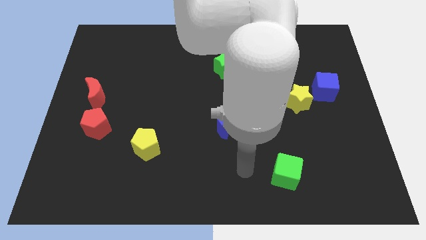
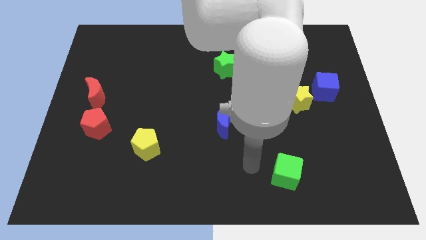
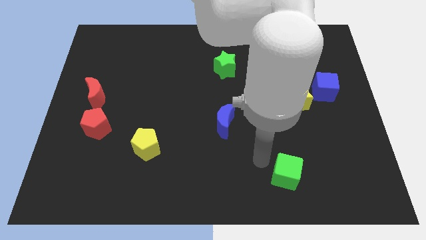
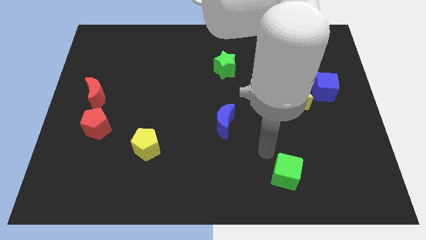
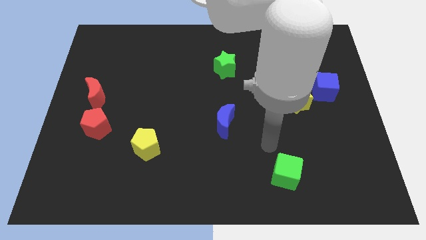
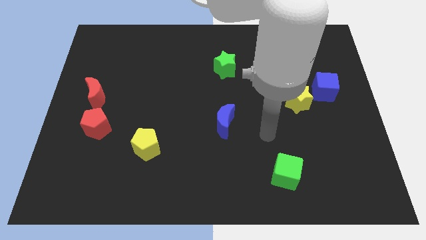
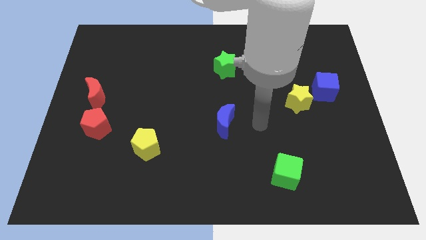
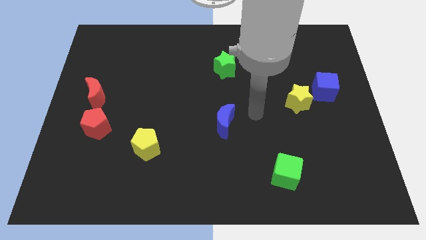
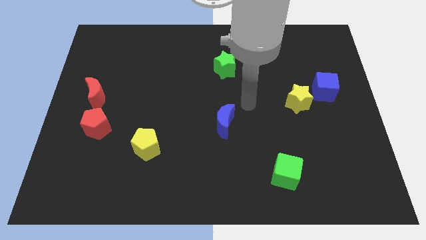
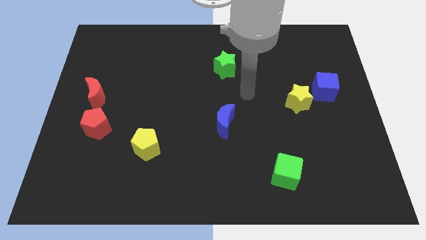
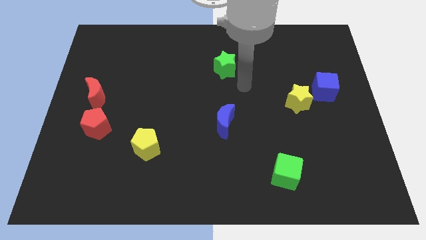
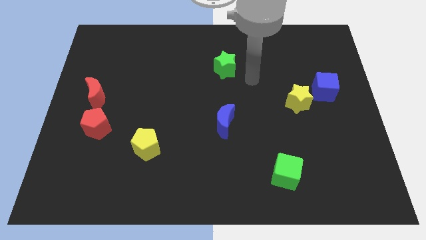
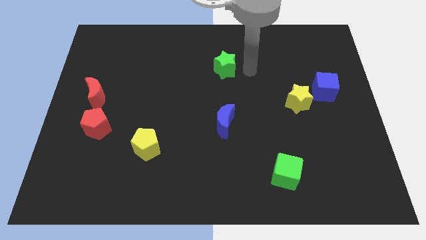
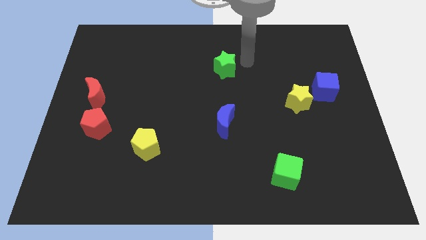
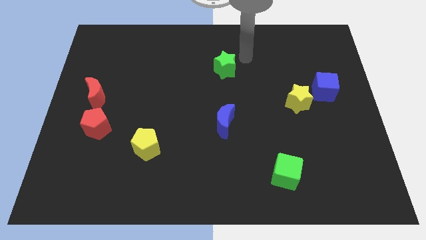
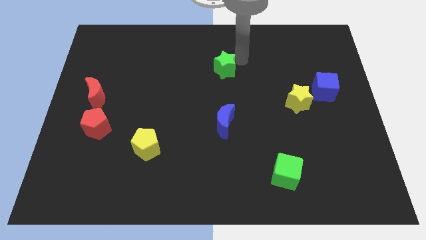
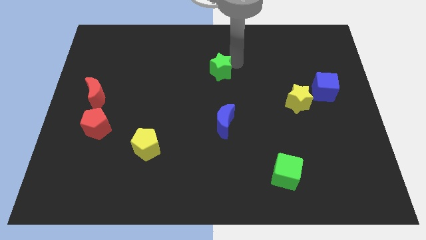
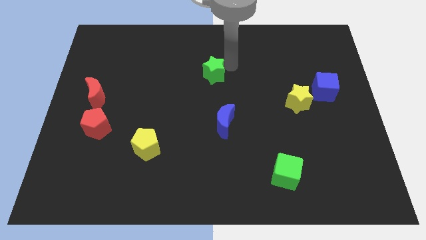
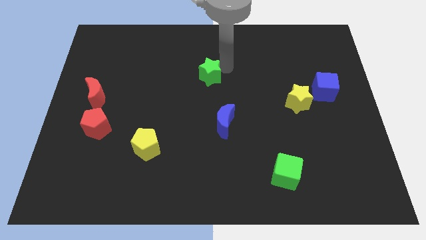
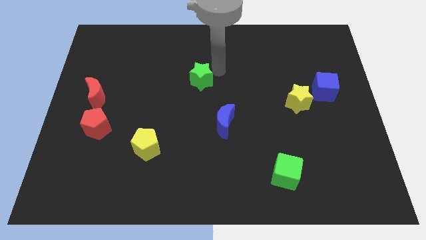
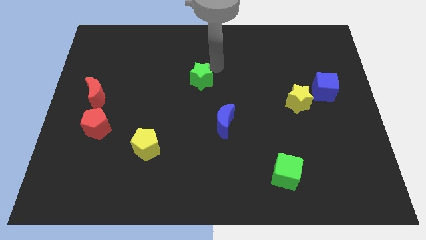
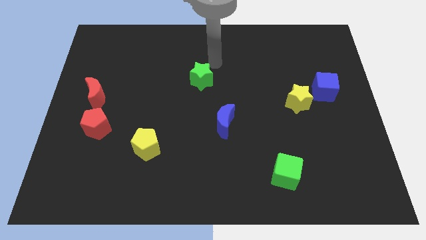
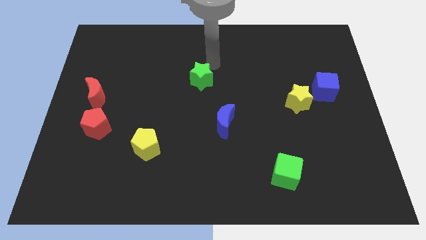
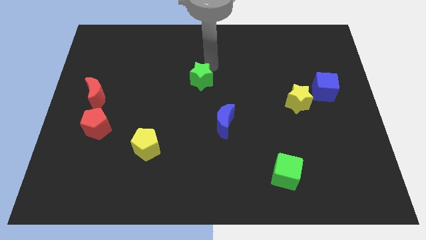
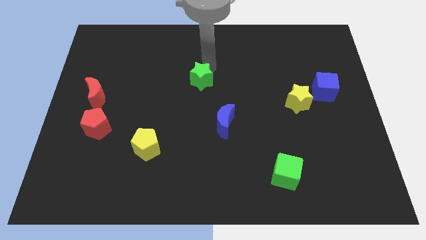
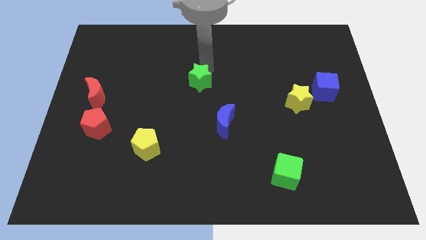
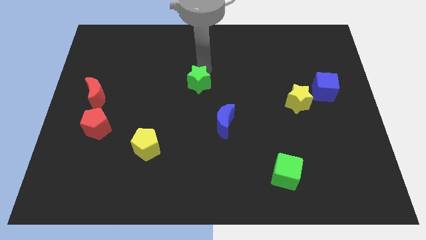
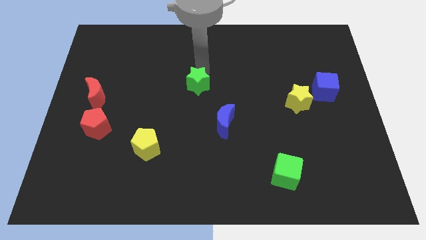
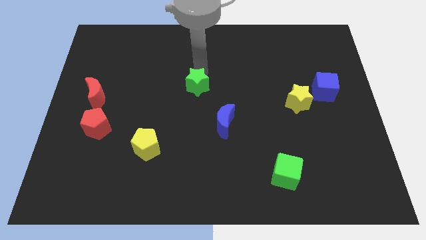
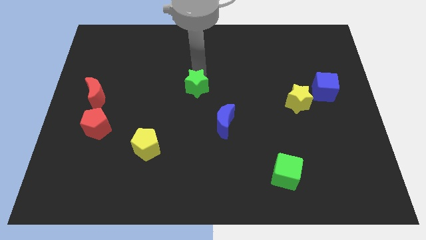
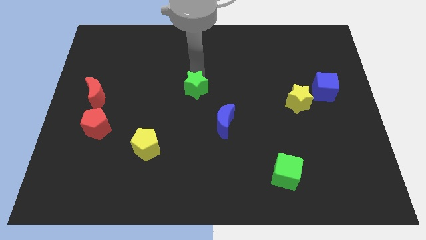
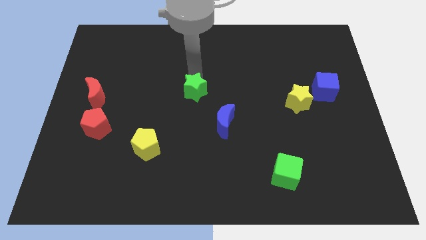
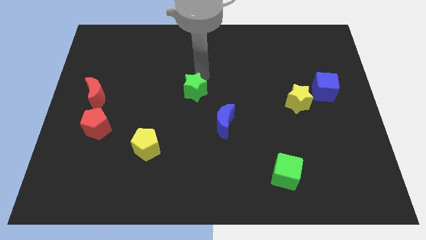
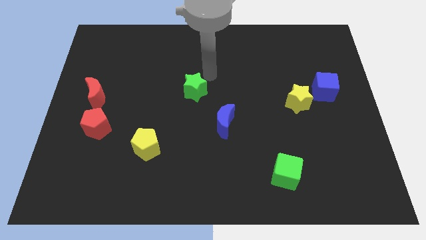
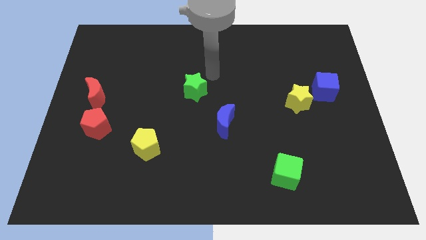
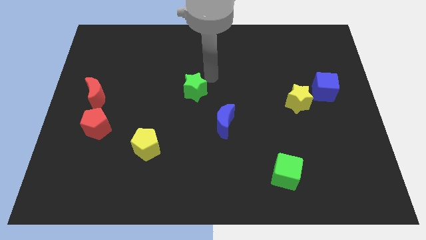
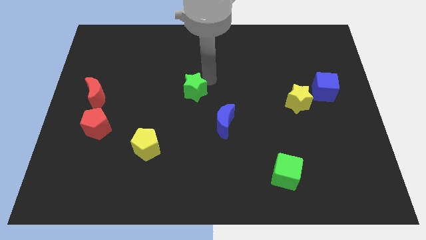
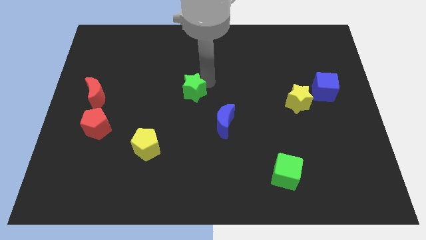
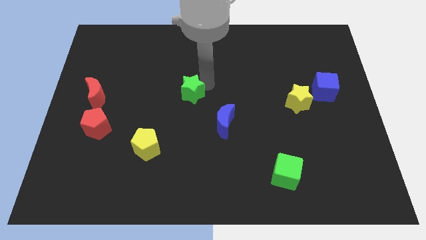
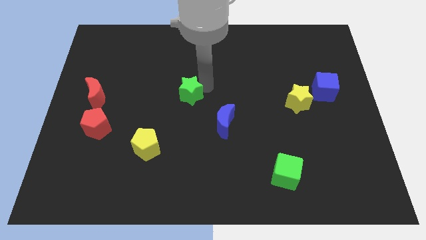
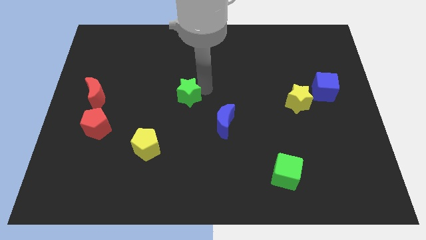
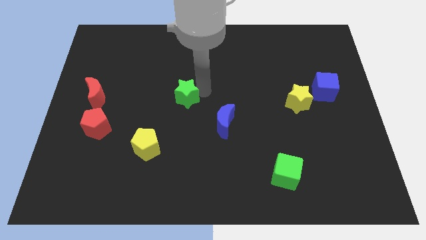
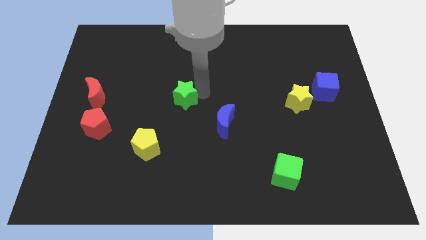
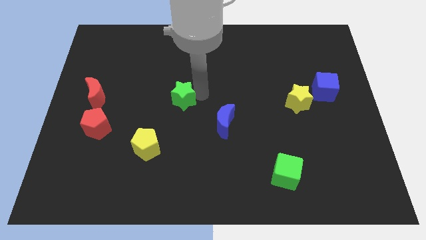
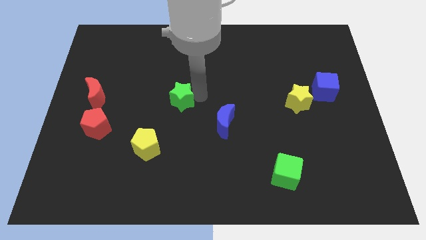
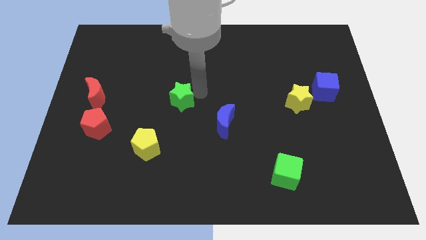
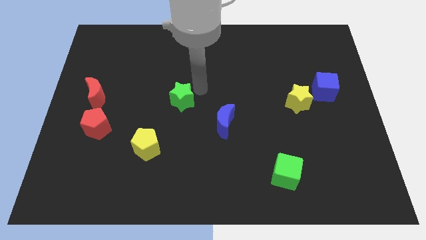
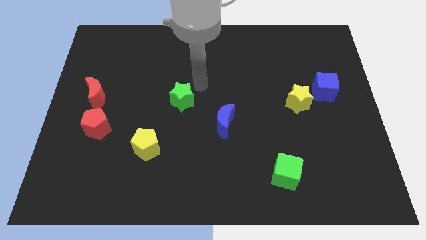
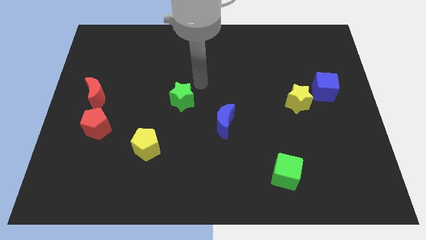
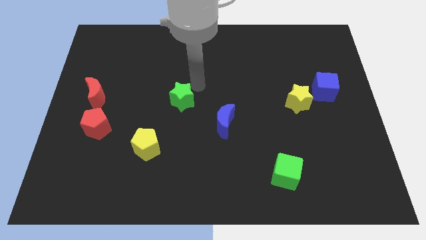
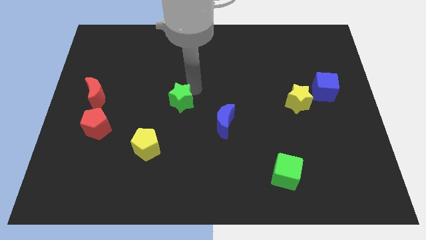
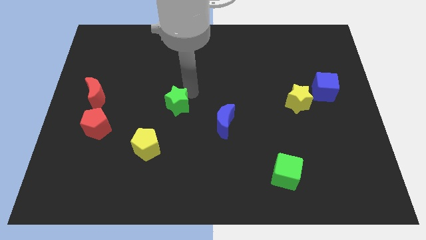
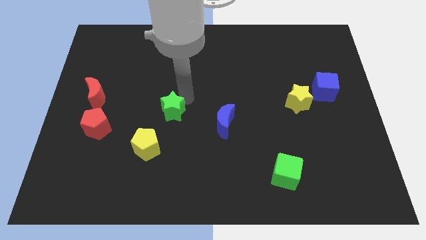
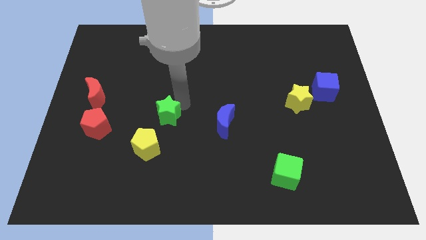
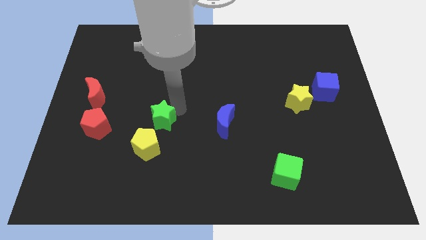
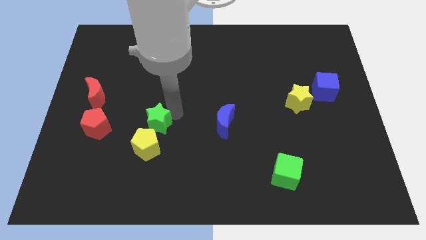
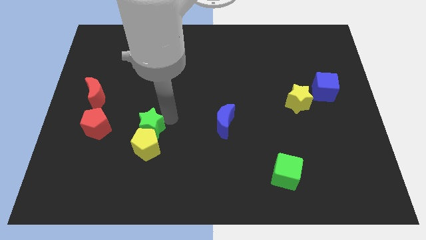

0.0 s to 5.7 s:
slide the green star diagonally up and to the left of the yellow pentagon
